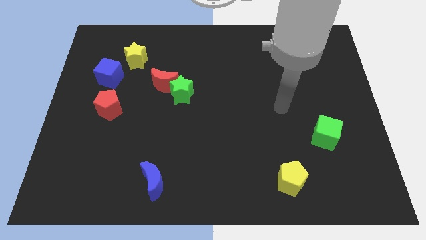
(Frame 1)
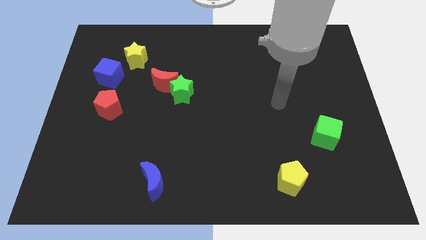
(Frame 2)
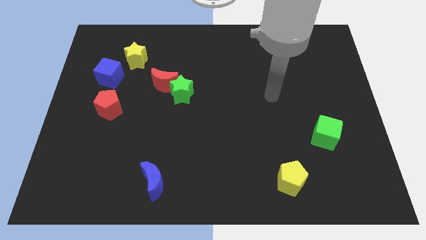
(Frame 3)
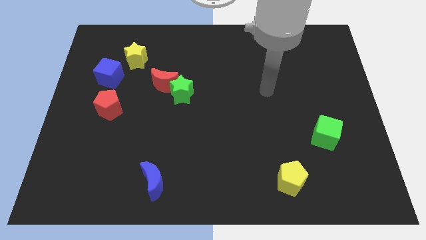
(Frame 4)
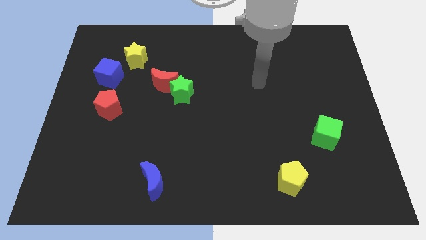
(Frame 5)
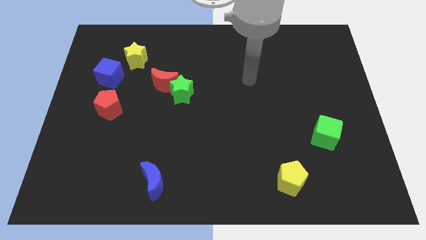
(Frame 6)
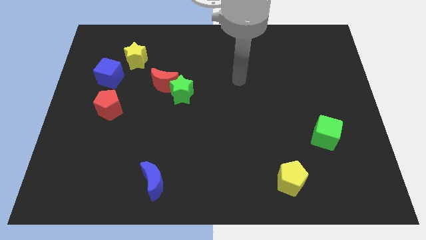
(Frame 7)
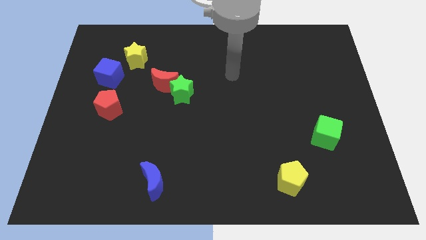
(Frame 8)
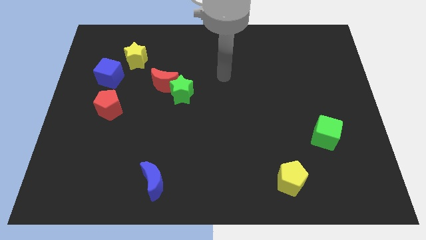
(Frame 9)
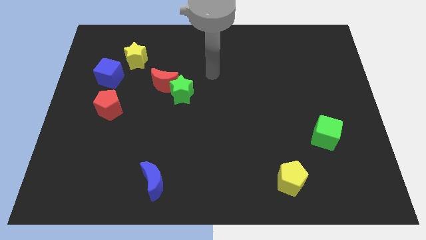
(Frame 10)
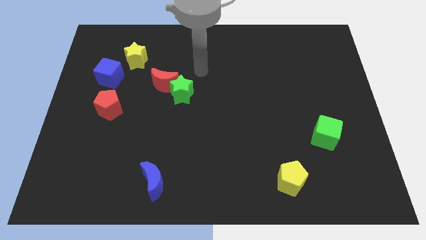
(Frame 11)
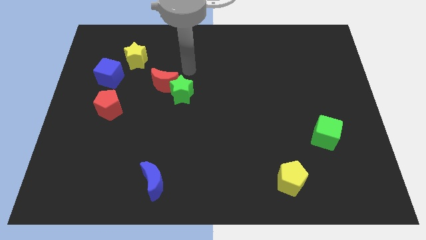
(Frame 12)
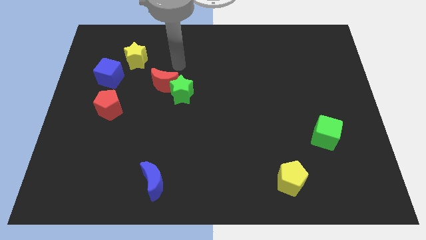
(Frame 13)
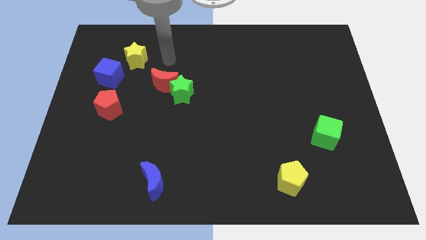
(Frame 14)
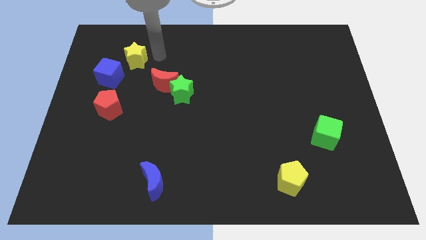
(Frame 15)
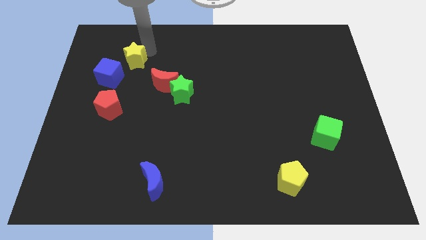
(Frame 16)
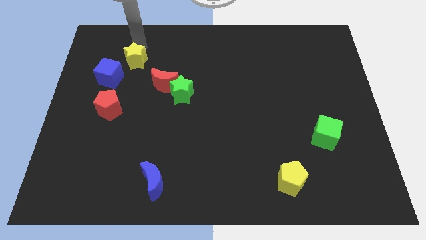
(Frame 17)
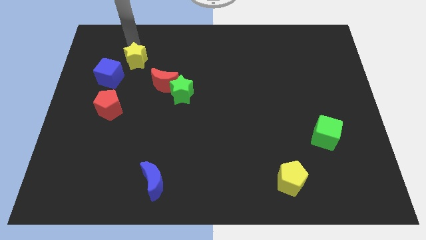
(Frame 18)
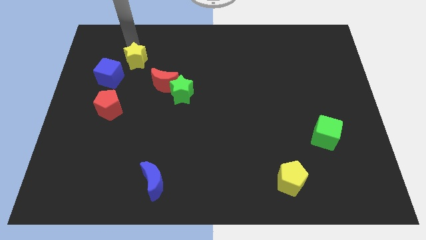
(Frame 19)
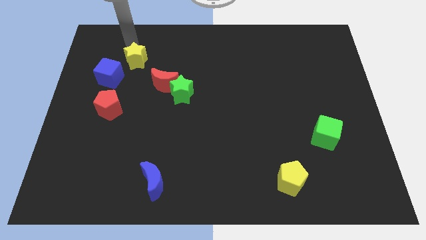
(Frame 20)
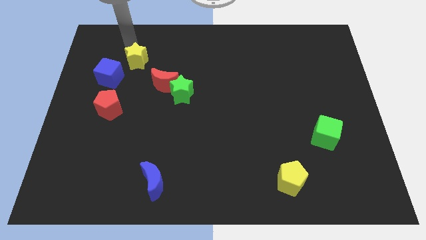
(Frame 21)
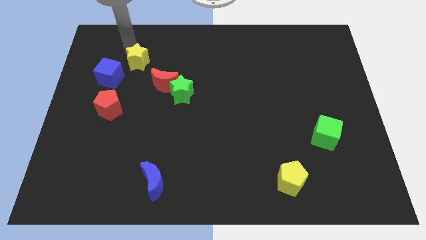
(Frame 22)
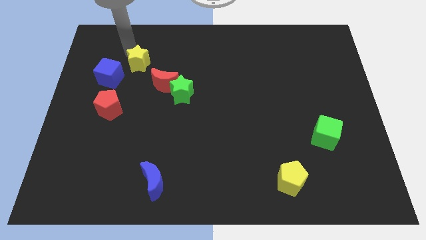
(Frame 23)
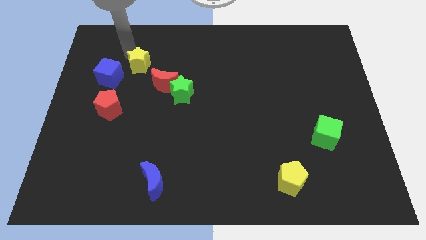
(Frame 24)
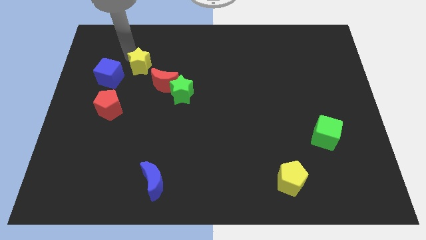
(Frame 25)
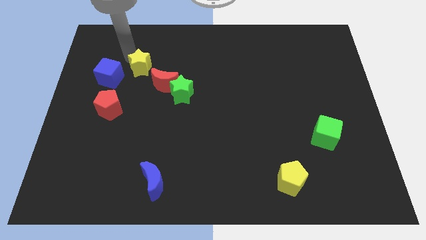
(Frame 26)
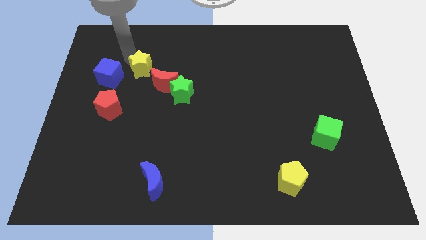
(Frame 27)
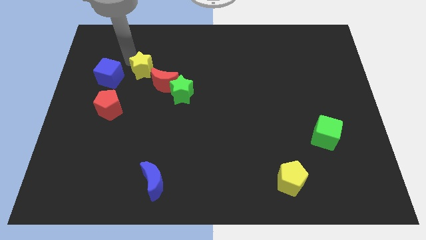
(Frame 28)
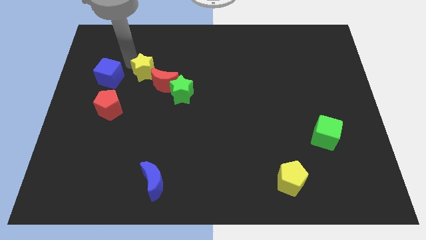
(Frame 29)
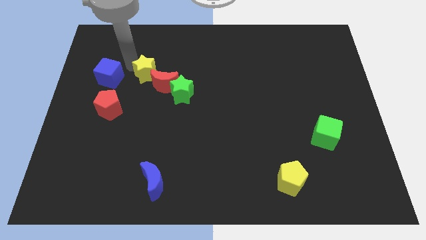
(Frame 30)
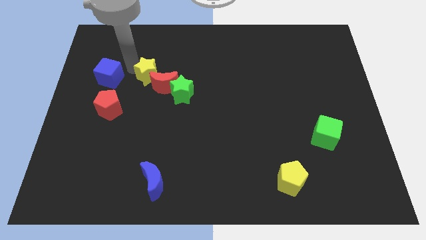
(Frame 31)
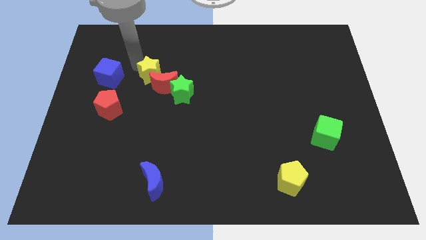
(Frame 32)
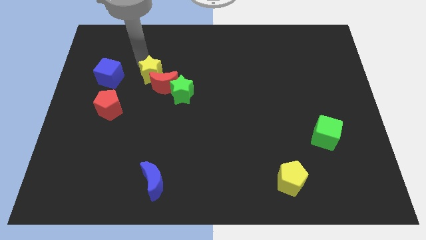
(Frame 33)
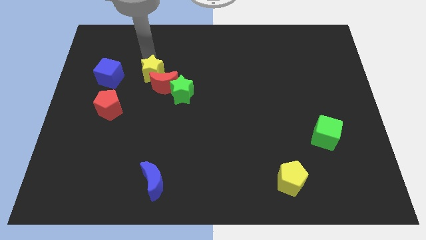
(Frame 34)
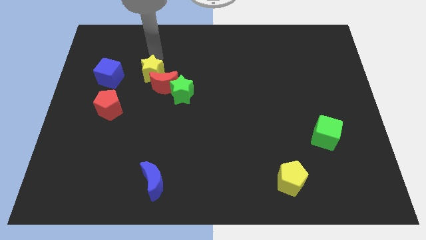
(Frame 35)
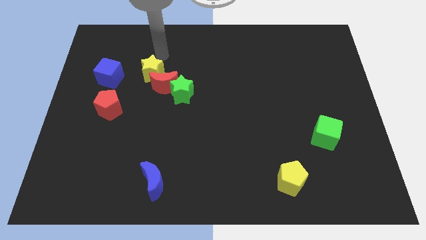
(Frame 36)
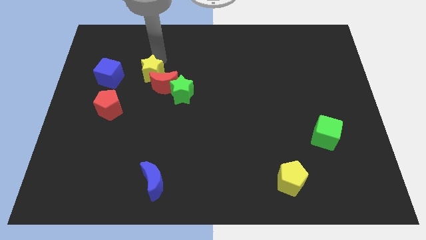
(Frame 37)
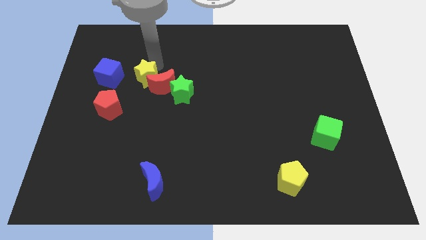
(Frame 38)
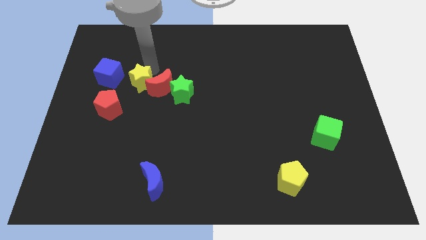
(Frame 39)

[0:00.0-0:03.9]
slide the yellow star slightly down

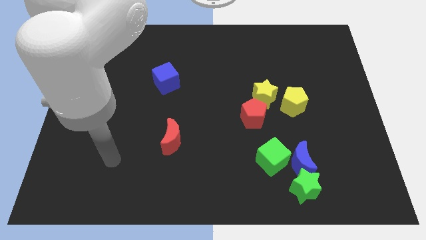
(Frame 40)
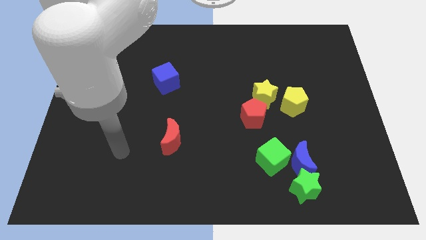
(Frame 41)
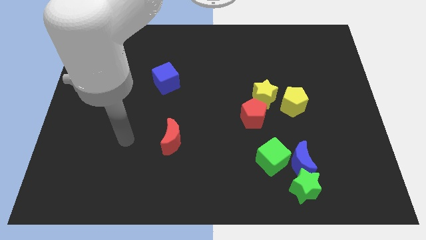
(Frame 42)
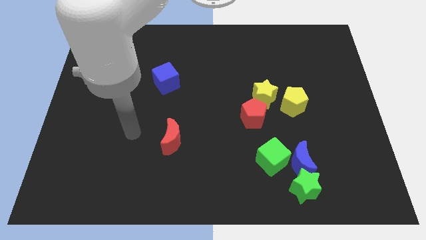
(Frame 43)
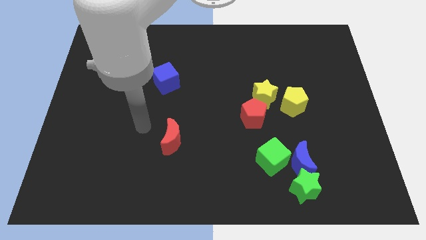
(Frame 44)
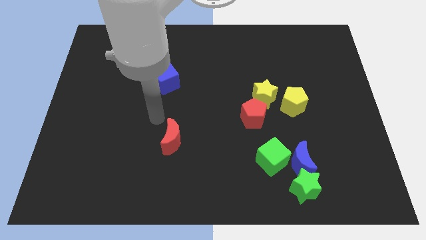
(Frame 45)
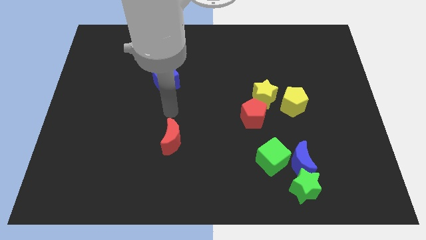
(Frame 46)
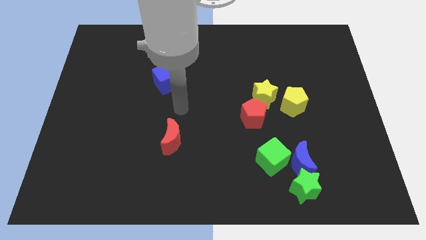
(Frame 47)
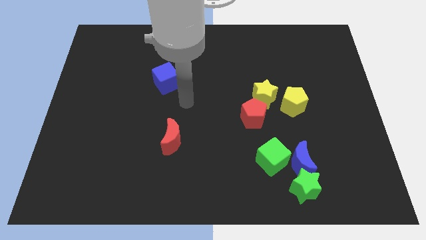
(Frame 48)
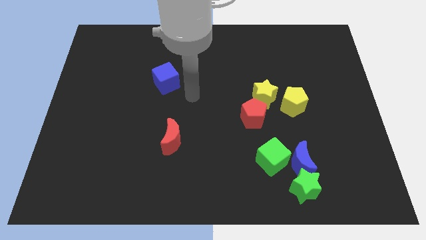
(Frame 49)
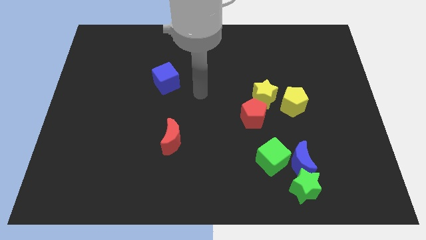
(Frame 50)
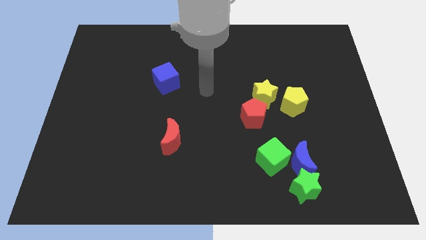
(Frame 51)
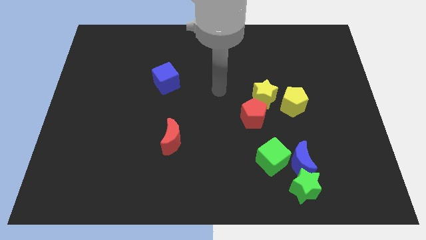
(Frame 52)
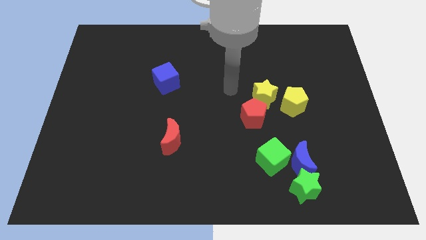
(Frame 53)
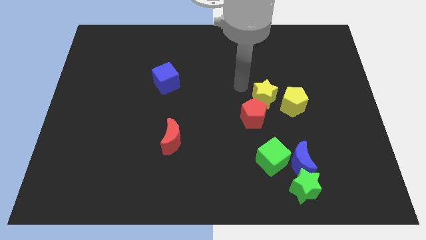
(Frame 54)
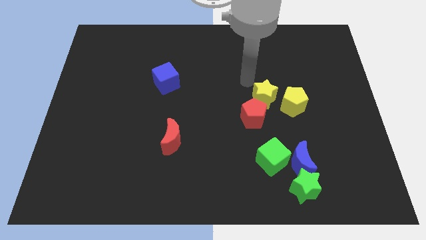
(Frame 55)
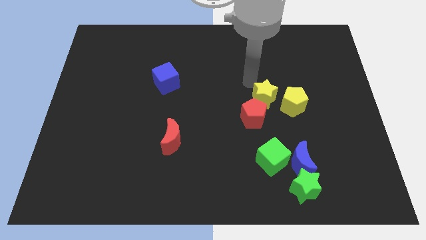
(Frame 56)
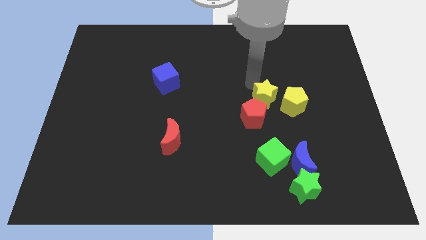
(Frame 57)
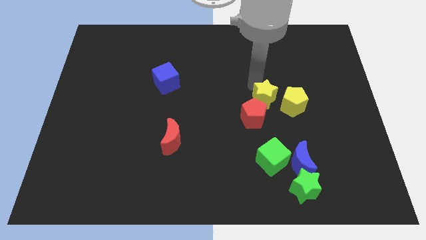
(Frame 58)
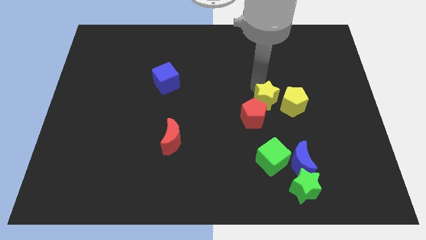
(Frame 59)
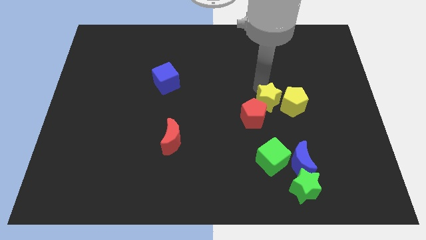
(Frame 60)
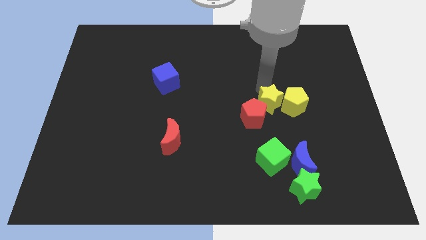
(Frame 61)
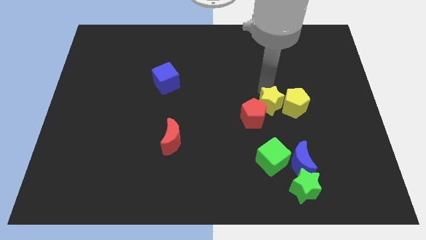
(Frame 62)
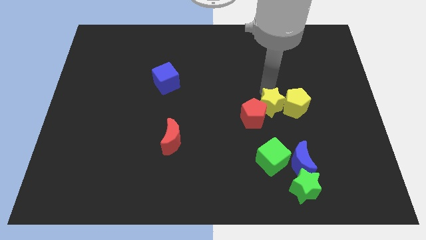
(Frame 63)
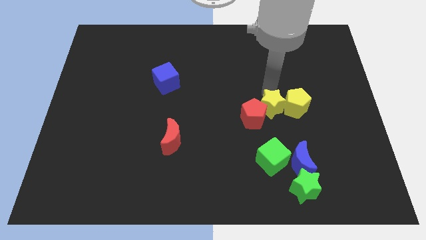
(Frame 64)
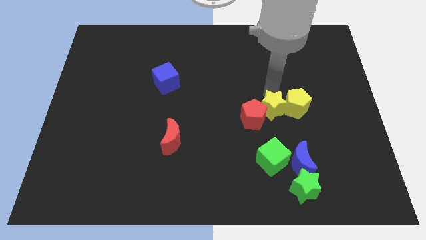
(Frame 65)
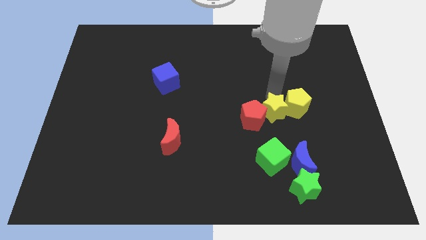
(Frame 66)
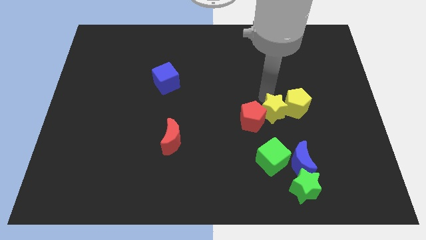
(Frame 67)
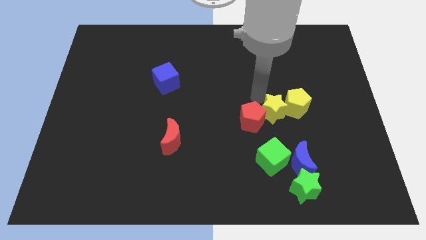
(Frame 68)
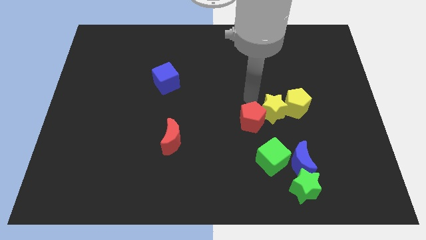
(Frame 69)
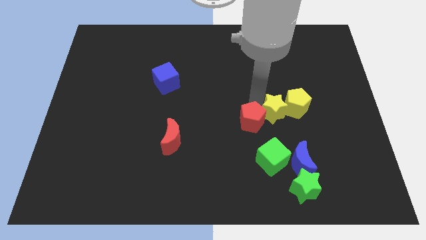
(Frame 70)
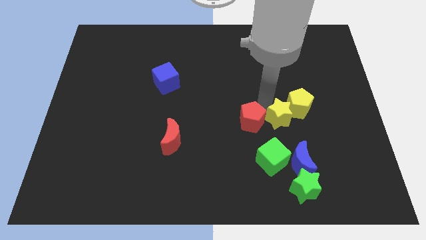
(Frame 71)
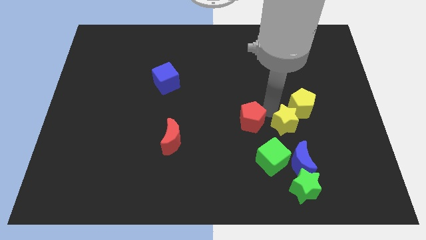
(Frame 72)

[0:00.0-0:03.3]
slide the yellow star a bit down and then to the right

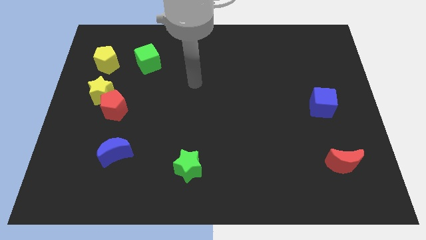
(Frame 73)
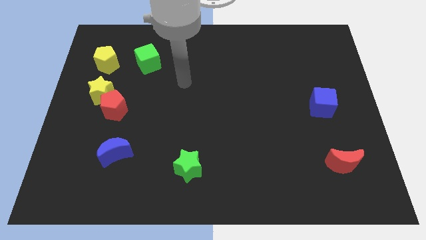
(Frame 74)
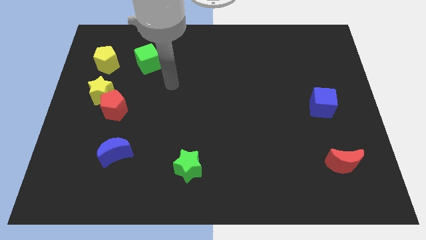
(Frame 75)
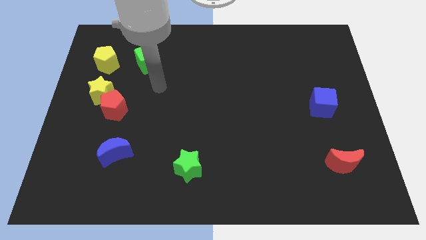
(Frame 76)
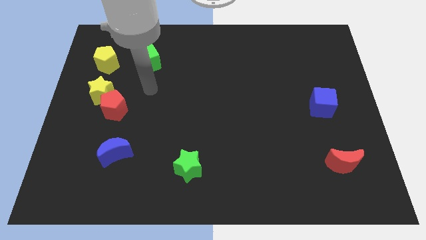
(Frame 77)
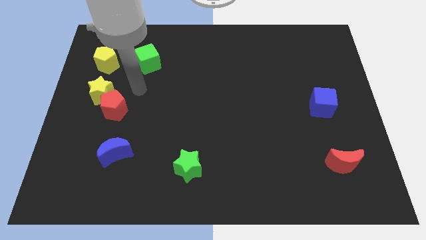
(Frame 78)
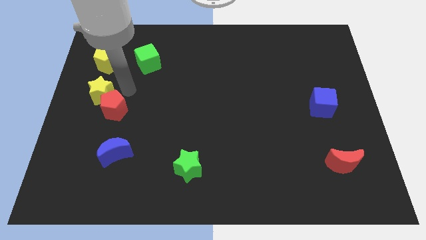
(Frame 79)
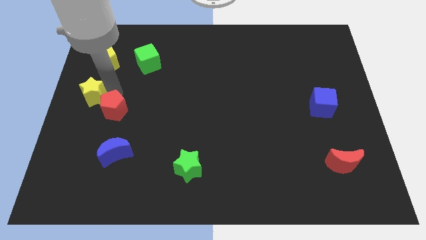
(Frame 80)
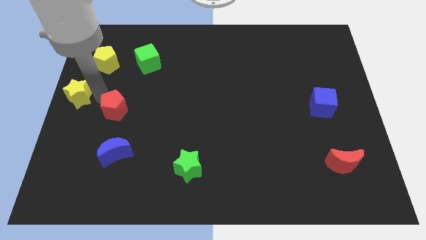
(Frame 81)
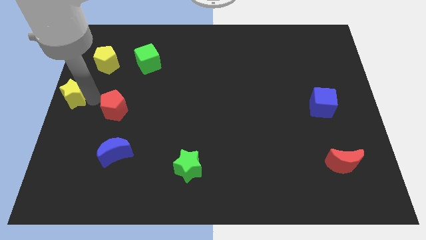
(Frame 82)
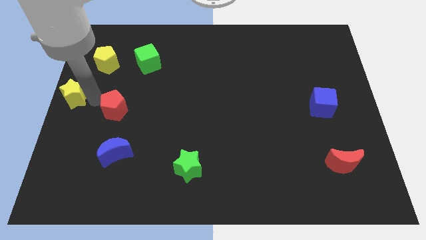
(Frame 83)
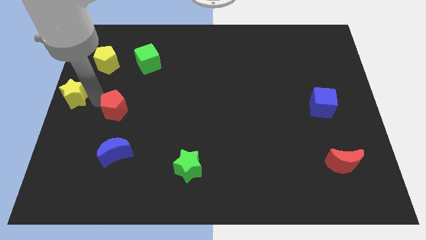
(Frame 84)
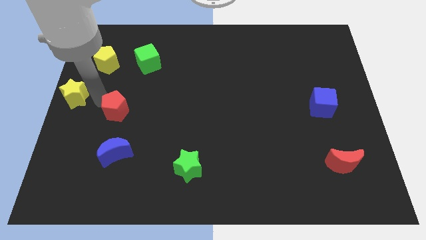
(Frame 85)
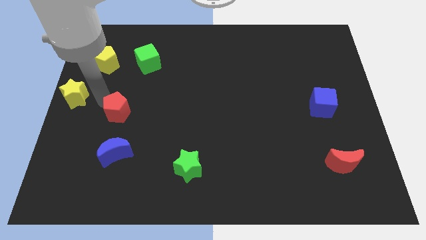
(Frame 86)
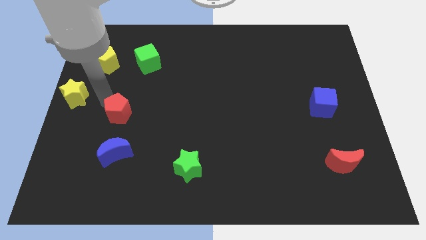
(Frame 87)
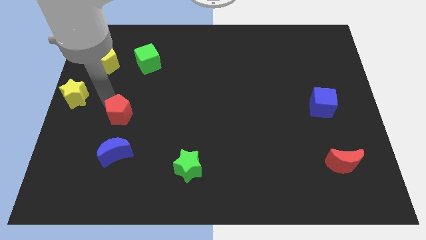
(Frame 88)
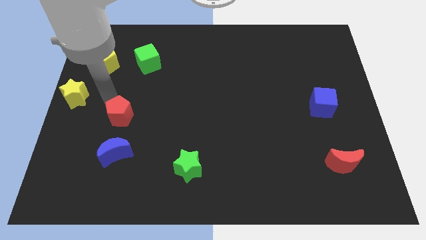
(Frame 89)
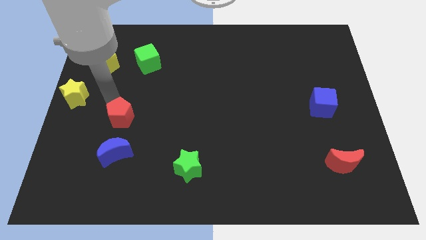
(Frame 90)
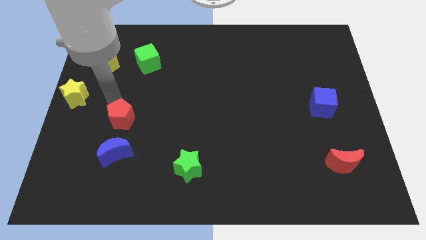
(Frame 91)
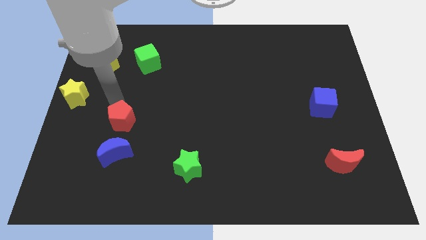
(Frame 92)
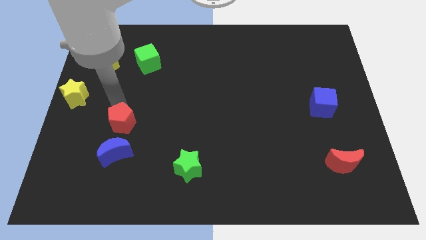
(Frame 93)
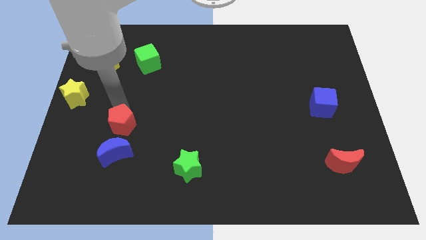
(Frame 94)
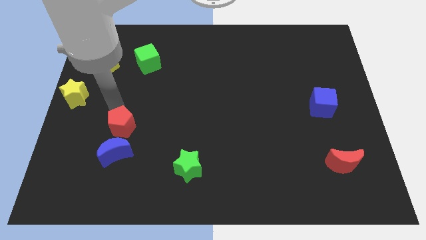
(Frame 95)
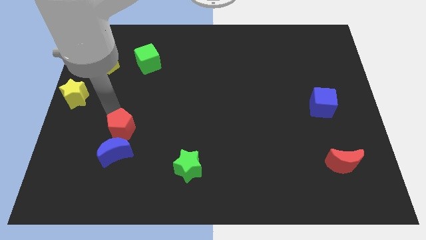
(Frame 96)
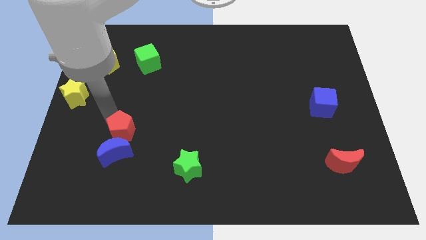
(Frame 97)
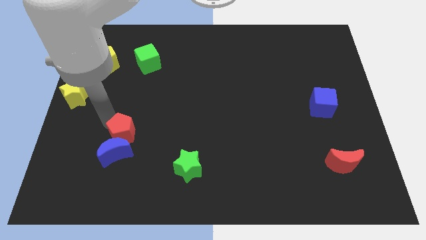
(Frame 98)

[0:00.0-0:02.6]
slide the red pentagon down and then to the right a little bit
